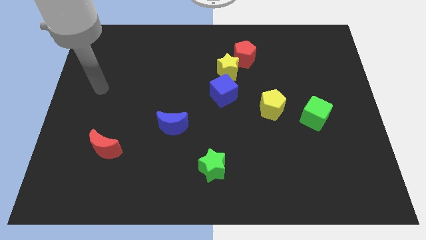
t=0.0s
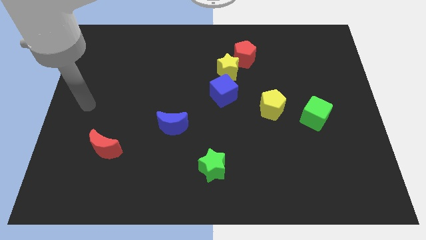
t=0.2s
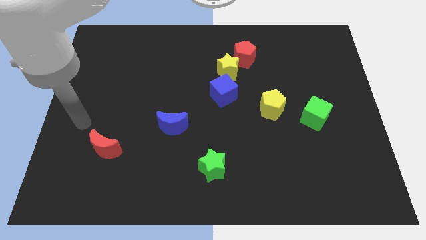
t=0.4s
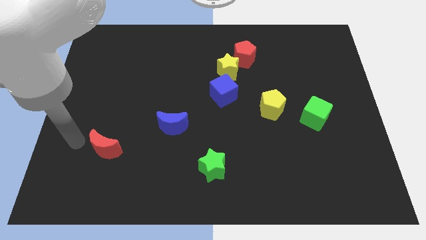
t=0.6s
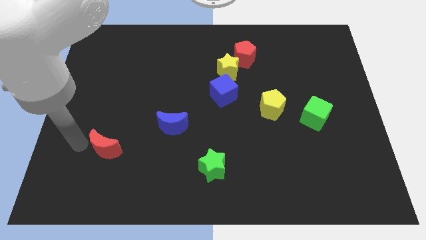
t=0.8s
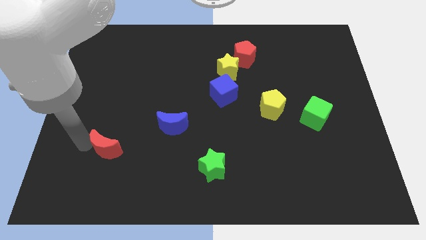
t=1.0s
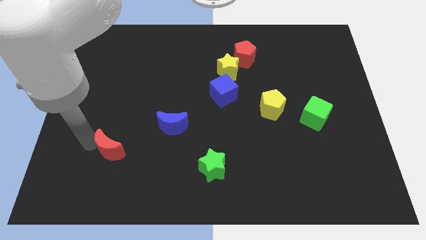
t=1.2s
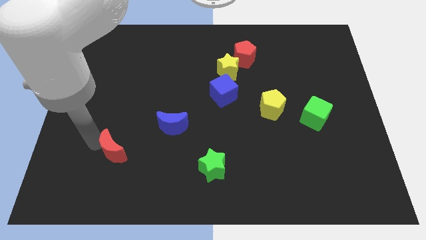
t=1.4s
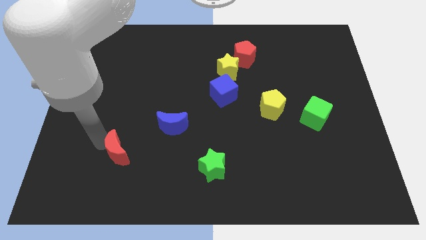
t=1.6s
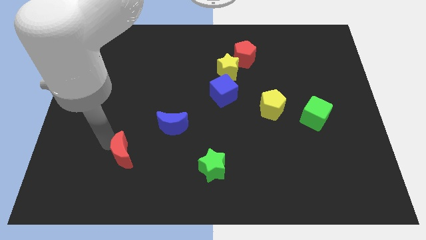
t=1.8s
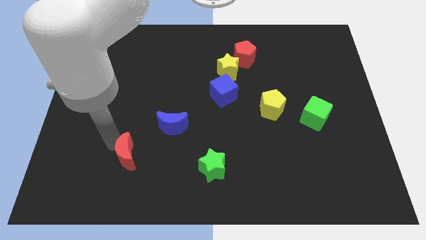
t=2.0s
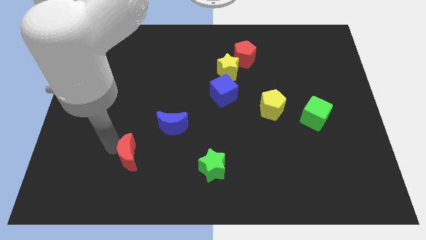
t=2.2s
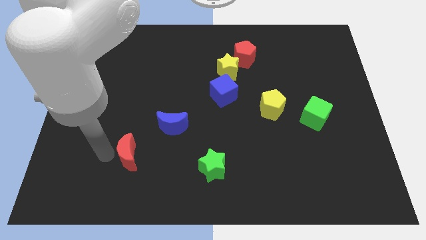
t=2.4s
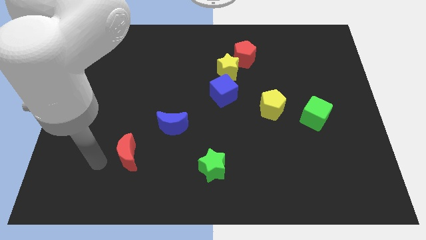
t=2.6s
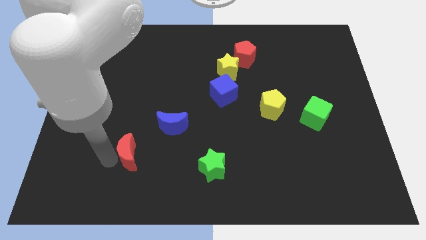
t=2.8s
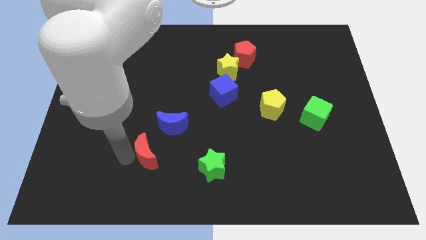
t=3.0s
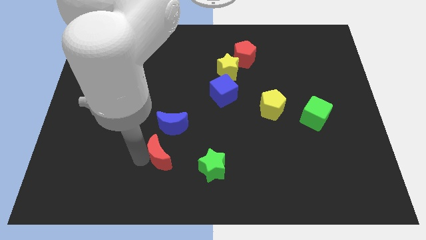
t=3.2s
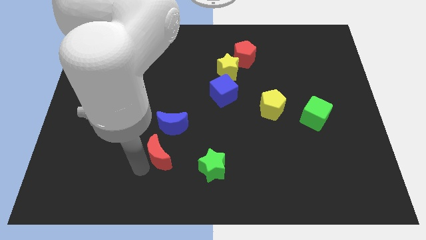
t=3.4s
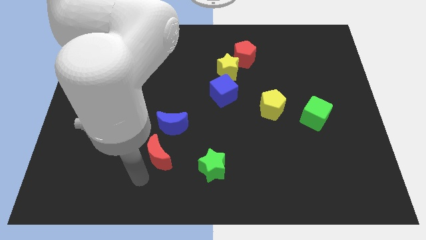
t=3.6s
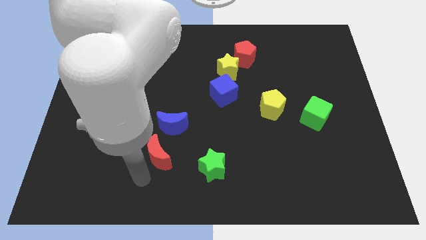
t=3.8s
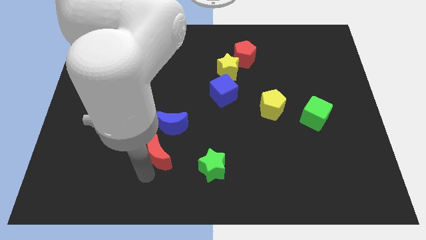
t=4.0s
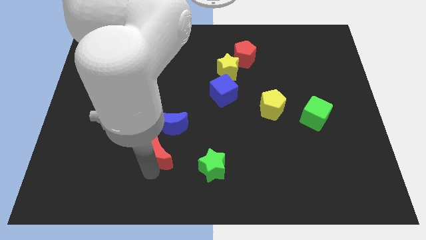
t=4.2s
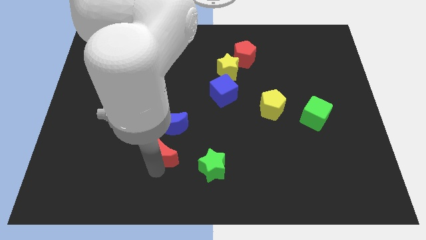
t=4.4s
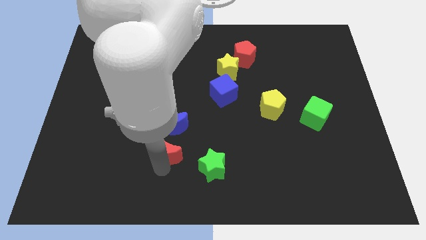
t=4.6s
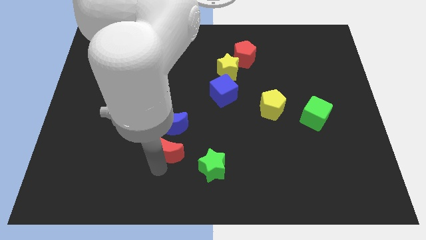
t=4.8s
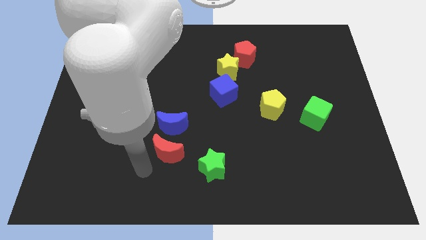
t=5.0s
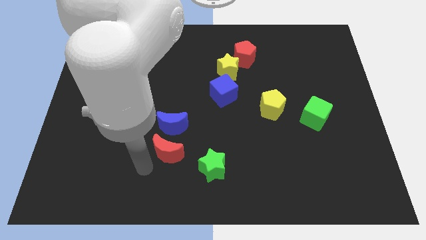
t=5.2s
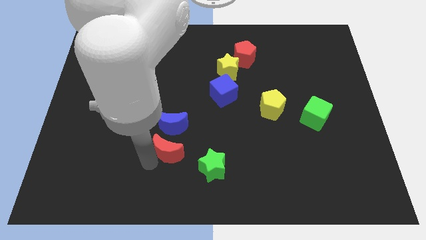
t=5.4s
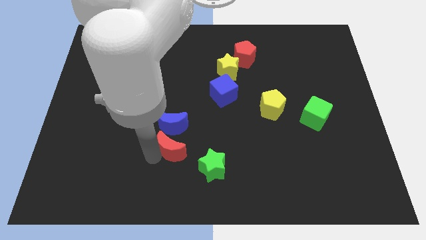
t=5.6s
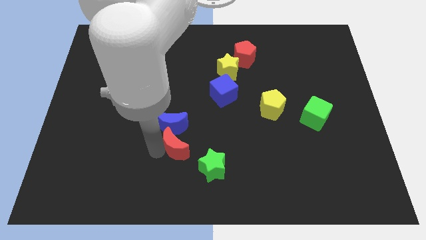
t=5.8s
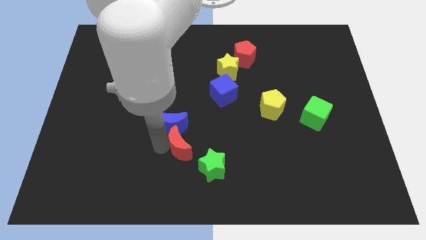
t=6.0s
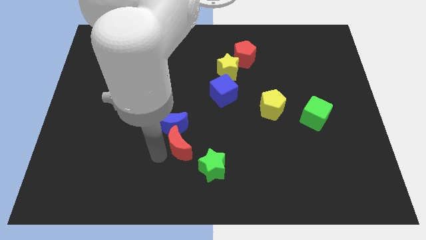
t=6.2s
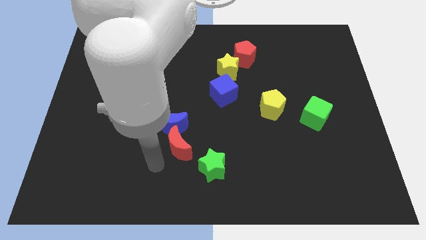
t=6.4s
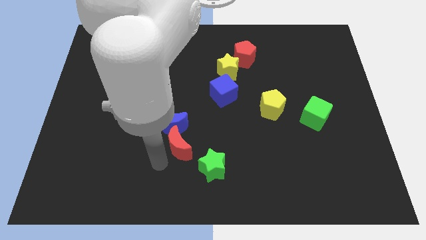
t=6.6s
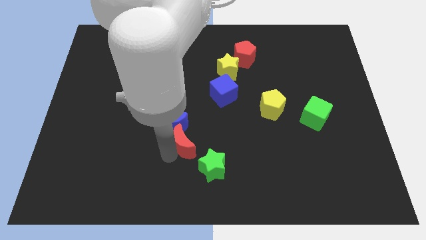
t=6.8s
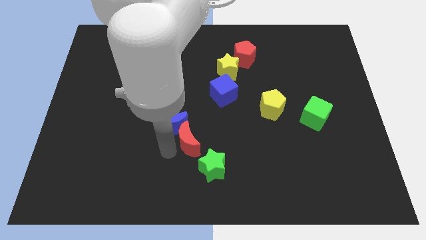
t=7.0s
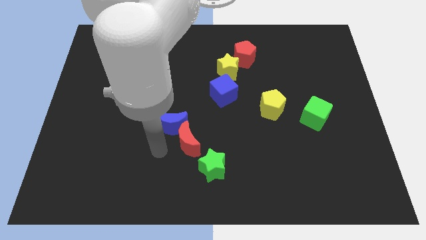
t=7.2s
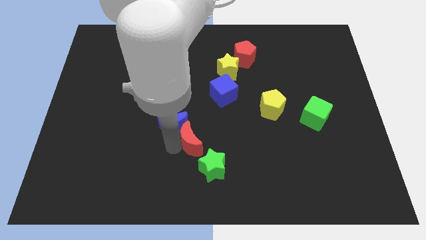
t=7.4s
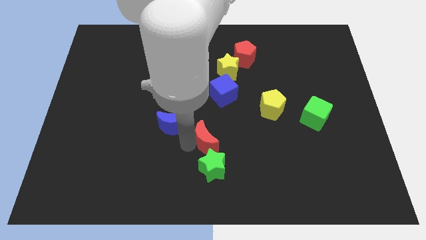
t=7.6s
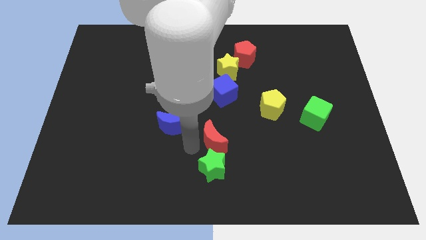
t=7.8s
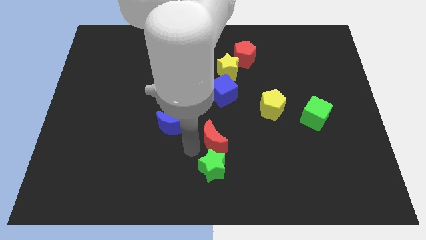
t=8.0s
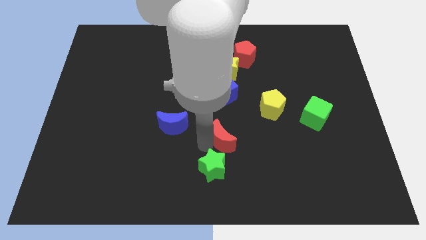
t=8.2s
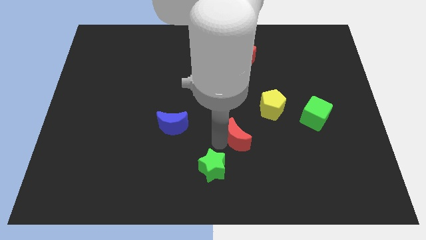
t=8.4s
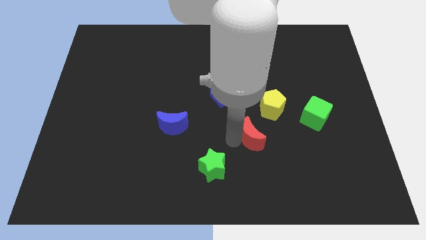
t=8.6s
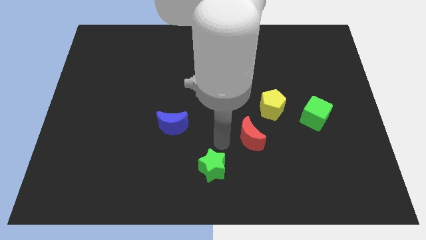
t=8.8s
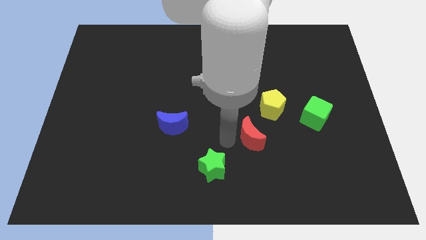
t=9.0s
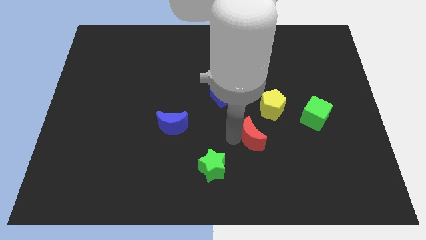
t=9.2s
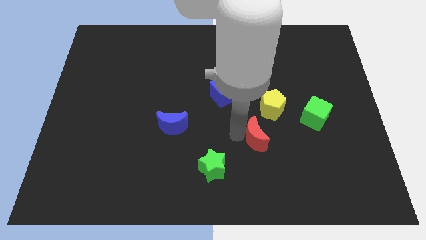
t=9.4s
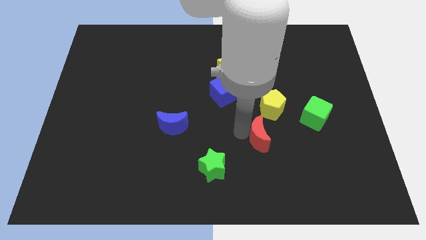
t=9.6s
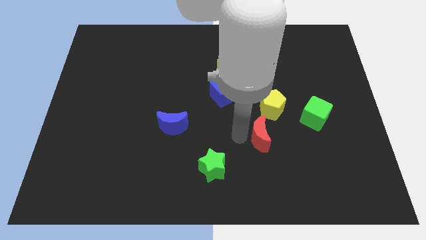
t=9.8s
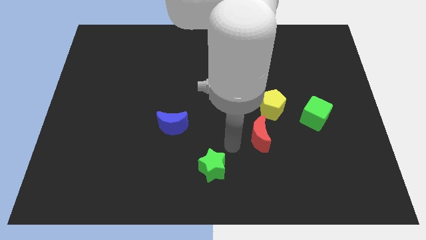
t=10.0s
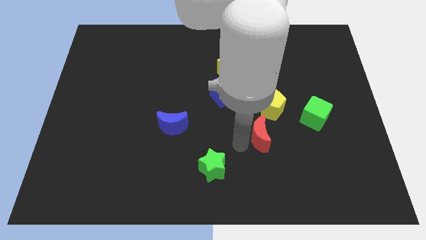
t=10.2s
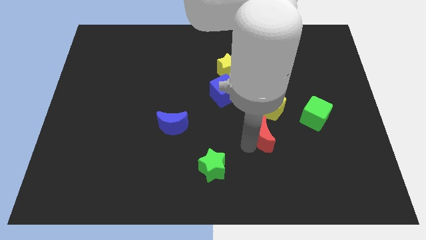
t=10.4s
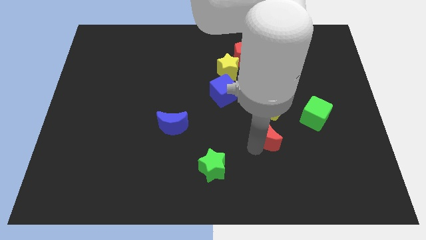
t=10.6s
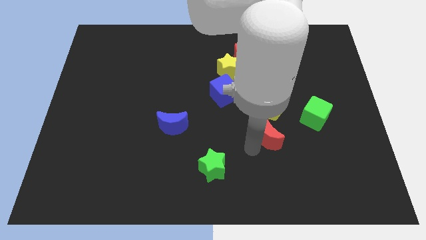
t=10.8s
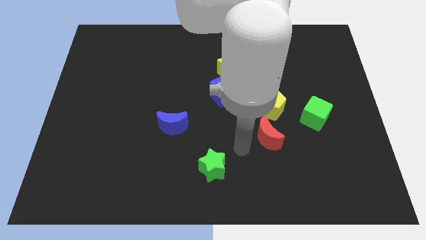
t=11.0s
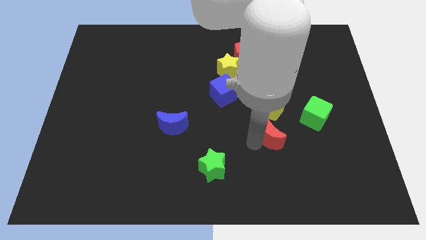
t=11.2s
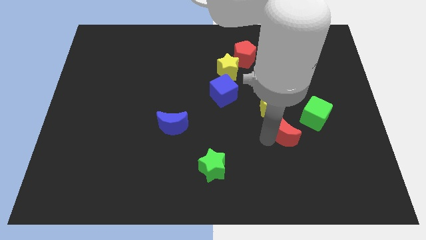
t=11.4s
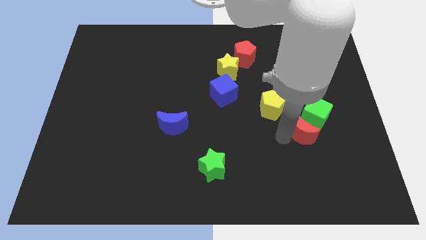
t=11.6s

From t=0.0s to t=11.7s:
push the red moon close to the green cube

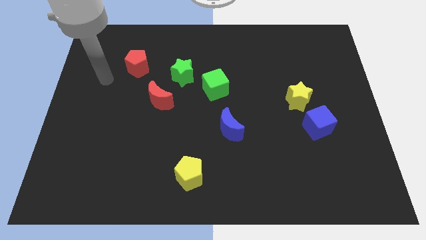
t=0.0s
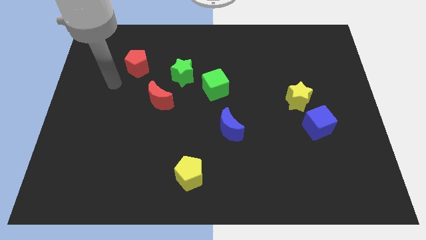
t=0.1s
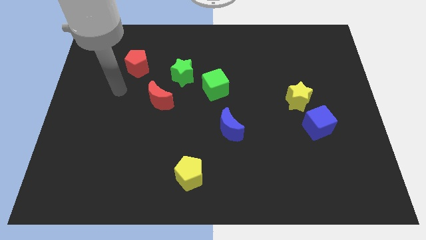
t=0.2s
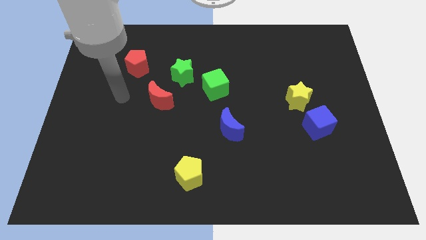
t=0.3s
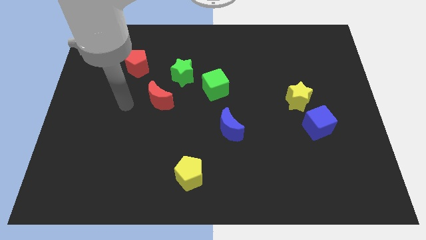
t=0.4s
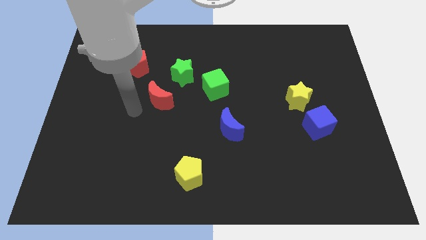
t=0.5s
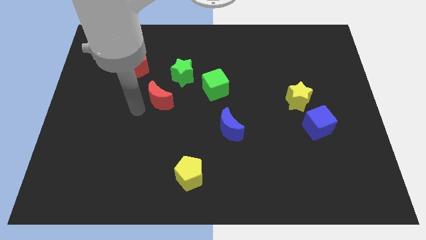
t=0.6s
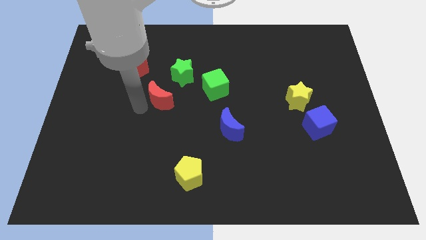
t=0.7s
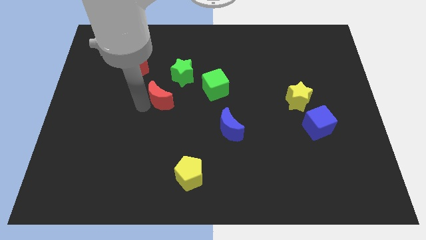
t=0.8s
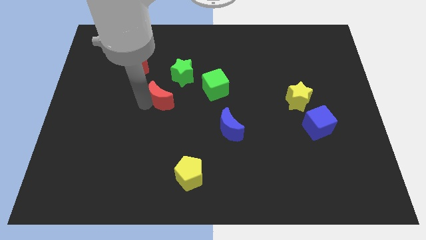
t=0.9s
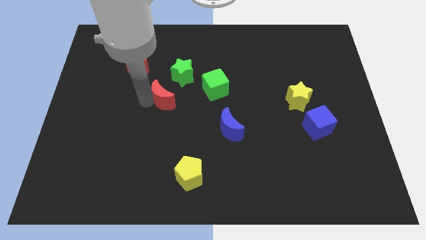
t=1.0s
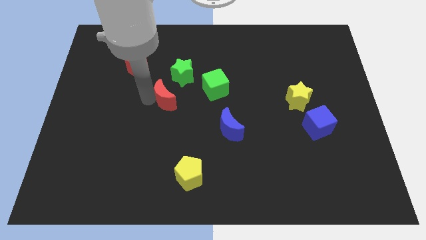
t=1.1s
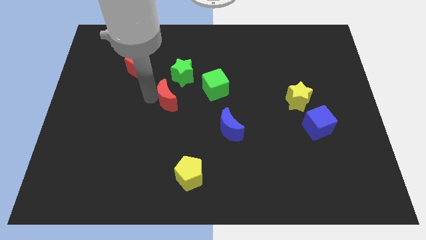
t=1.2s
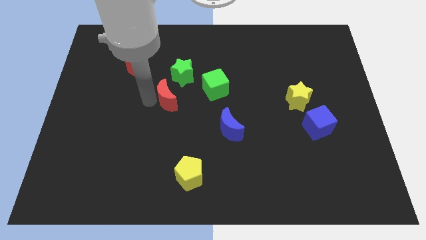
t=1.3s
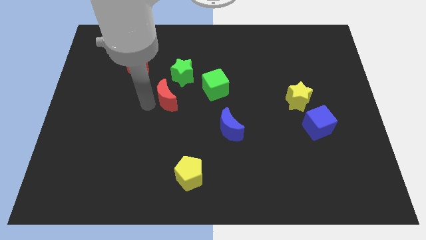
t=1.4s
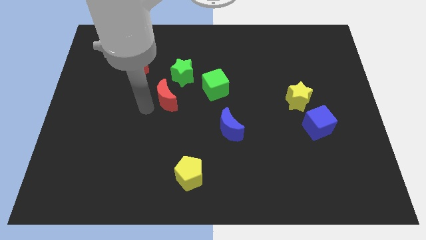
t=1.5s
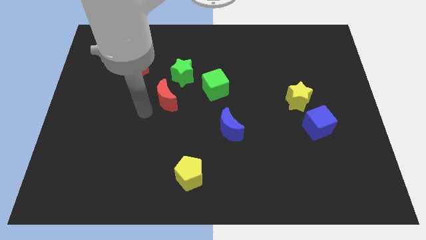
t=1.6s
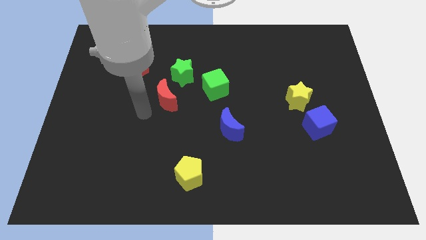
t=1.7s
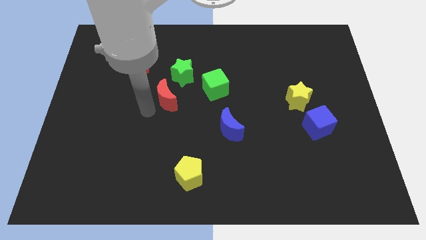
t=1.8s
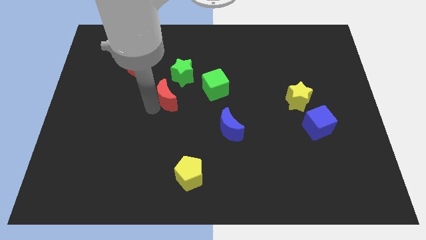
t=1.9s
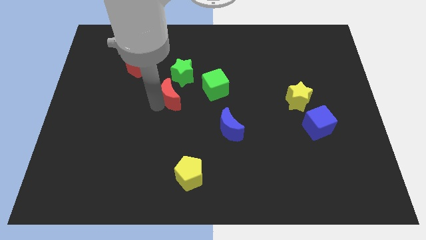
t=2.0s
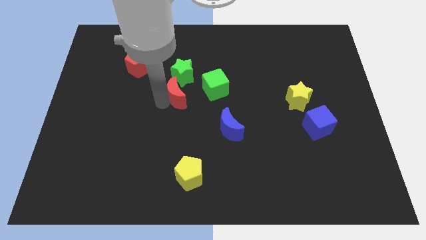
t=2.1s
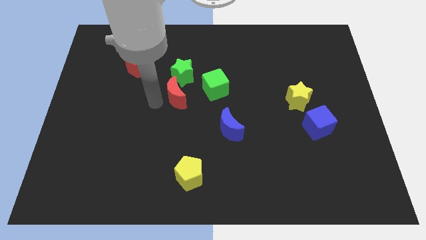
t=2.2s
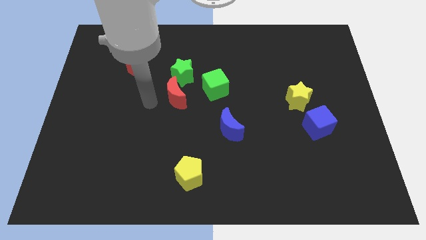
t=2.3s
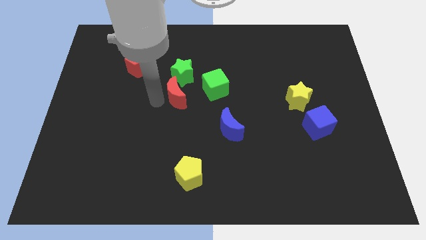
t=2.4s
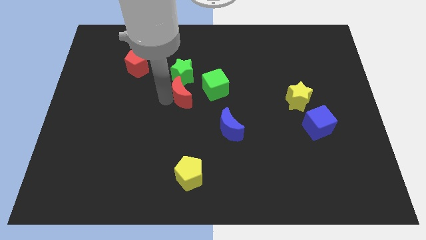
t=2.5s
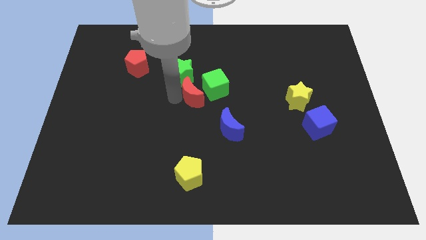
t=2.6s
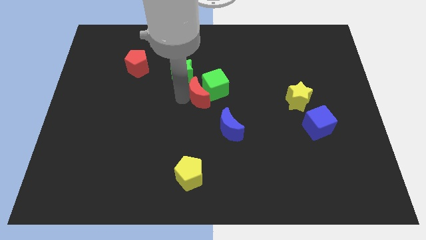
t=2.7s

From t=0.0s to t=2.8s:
push the red moon to the green cube
